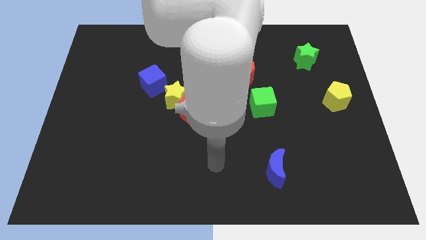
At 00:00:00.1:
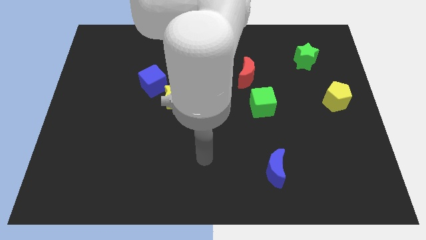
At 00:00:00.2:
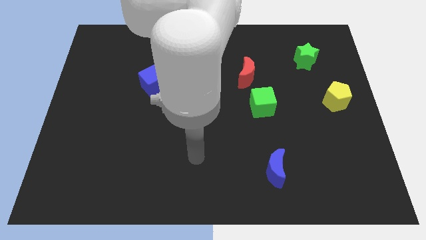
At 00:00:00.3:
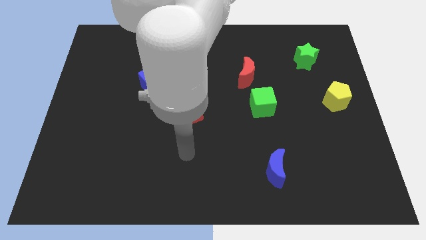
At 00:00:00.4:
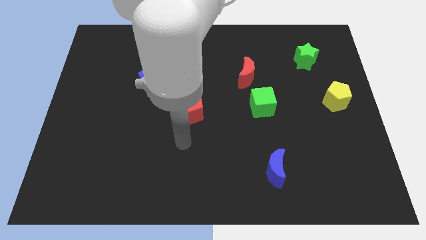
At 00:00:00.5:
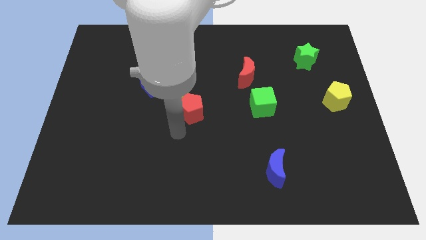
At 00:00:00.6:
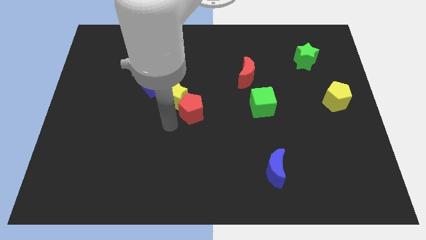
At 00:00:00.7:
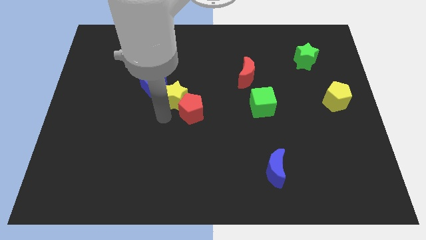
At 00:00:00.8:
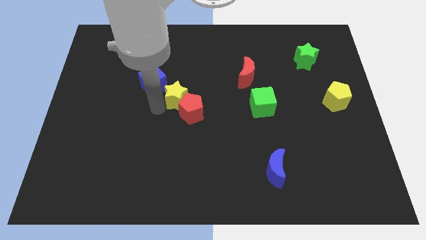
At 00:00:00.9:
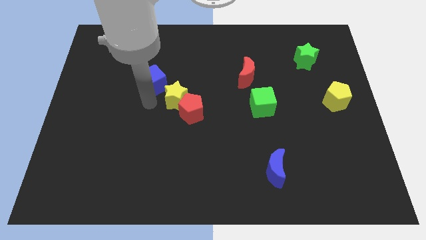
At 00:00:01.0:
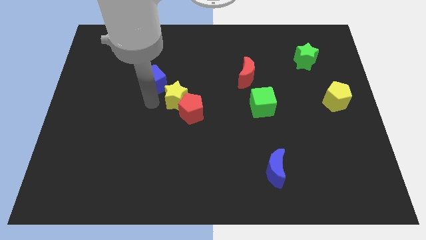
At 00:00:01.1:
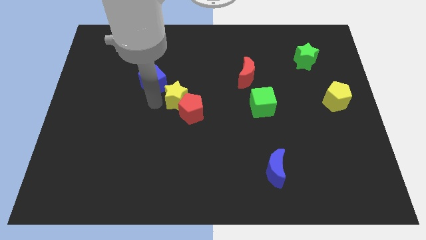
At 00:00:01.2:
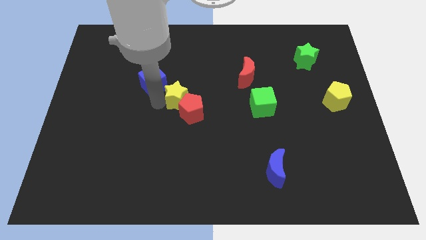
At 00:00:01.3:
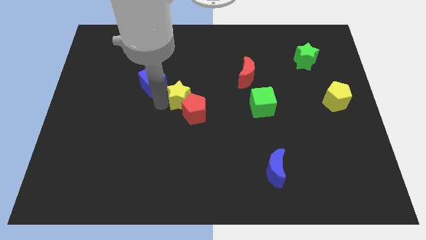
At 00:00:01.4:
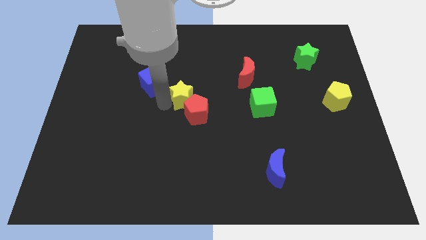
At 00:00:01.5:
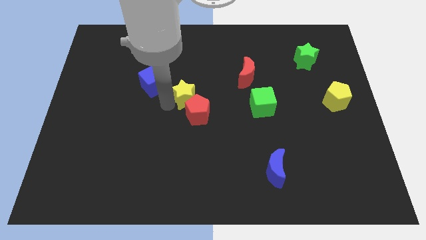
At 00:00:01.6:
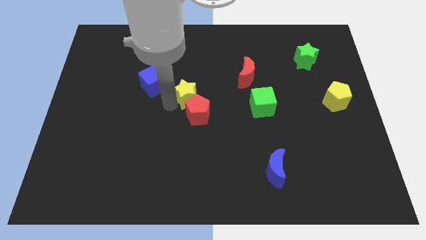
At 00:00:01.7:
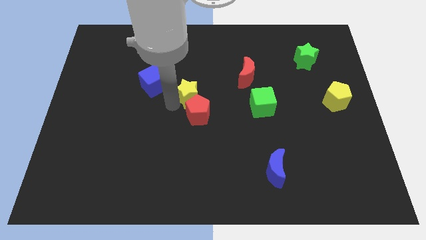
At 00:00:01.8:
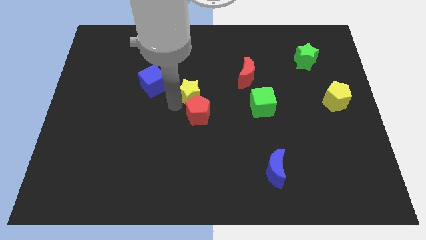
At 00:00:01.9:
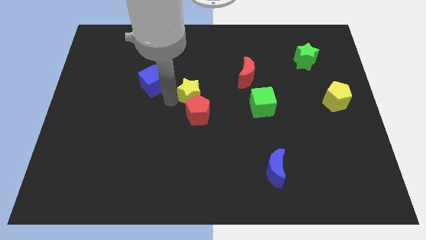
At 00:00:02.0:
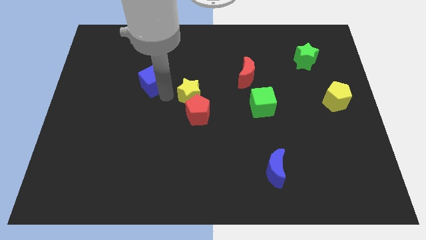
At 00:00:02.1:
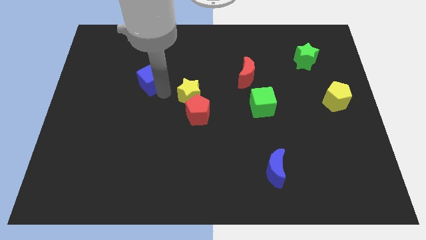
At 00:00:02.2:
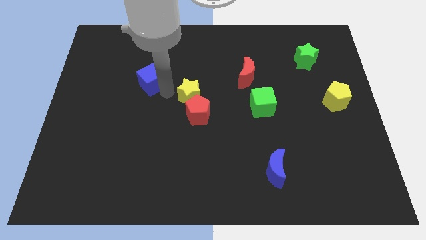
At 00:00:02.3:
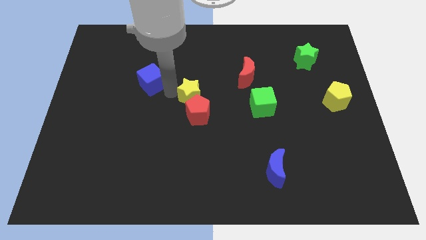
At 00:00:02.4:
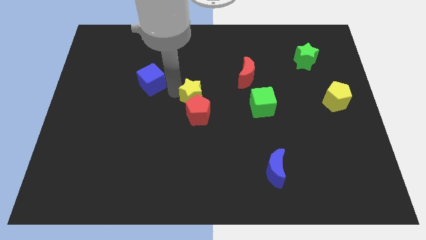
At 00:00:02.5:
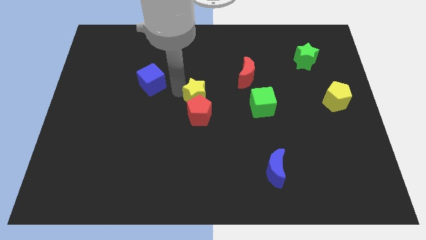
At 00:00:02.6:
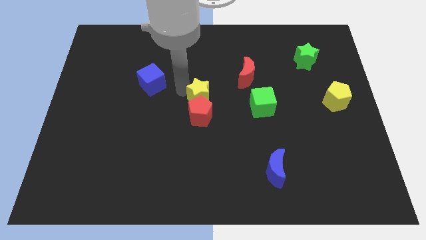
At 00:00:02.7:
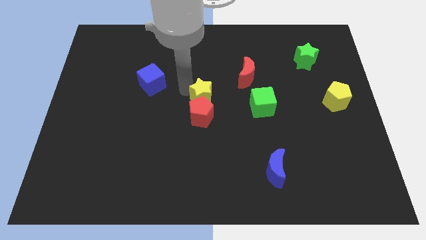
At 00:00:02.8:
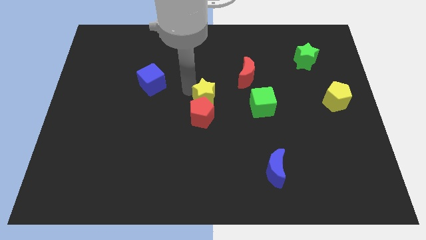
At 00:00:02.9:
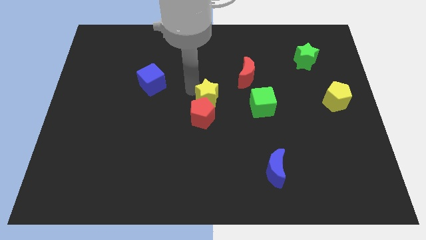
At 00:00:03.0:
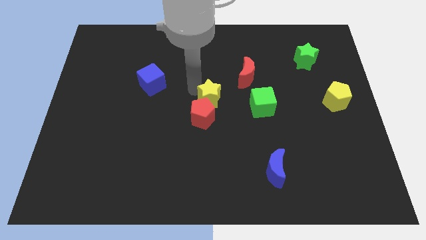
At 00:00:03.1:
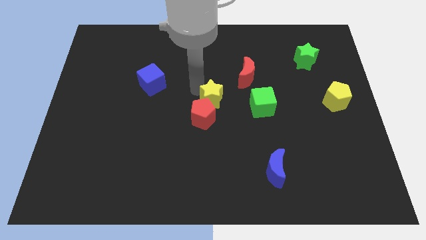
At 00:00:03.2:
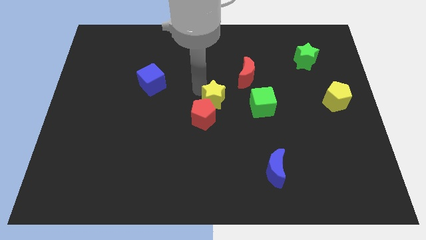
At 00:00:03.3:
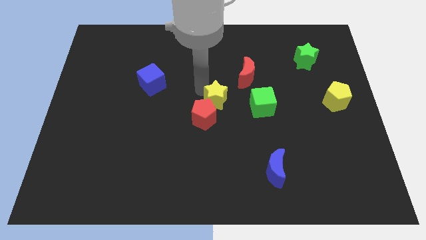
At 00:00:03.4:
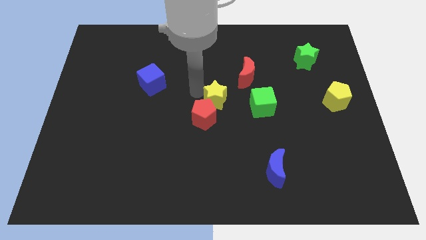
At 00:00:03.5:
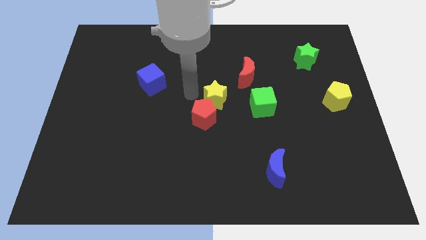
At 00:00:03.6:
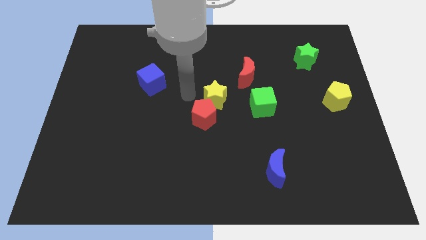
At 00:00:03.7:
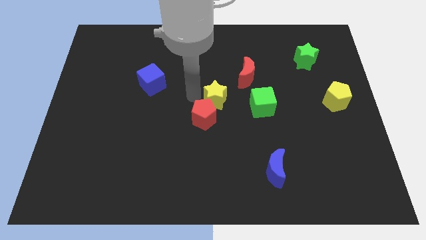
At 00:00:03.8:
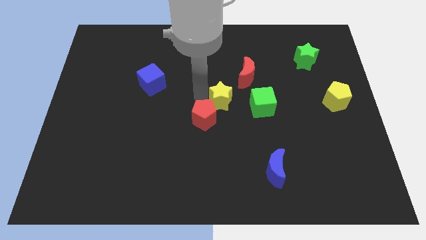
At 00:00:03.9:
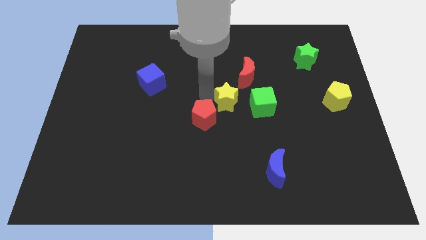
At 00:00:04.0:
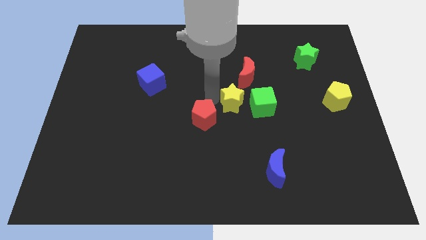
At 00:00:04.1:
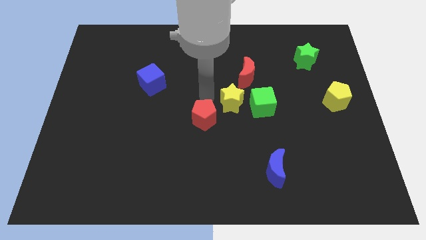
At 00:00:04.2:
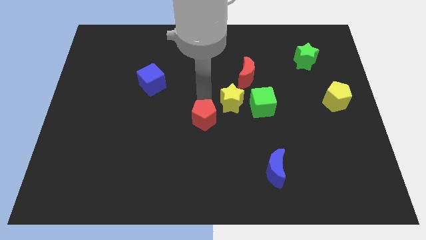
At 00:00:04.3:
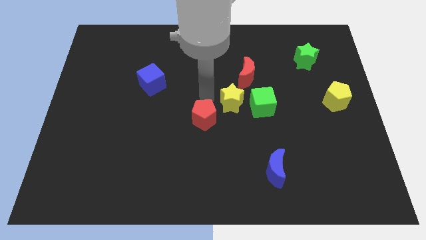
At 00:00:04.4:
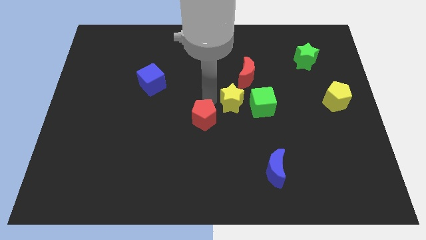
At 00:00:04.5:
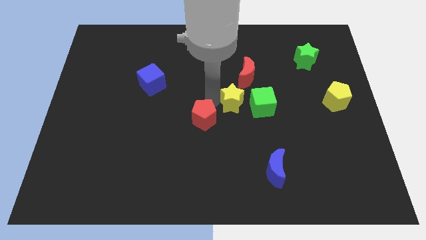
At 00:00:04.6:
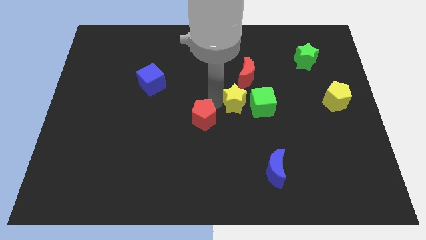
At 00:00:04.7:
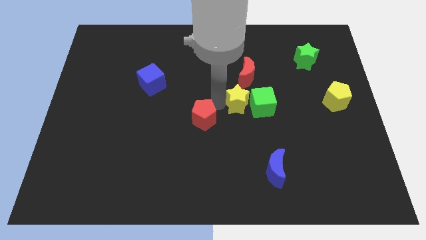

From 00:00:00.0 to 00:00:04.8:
put the yellow star to the green cube

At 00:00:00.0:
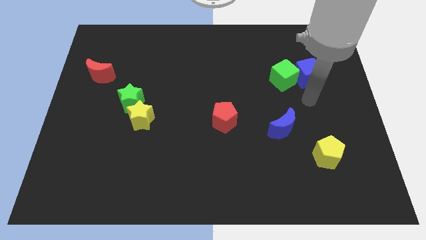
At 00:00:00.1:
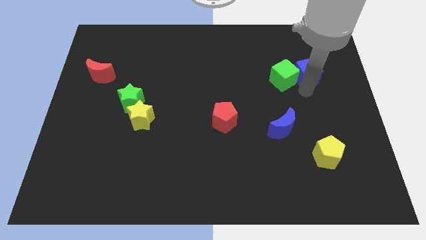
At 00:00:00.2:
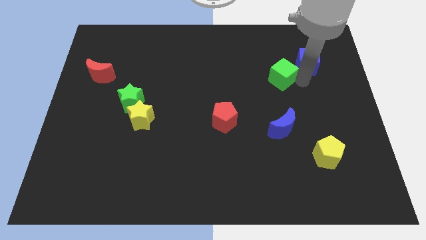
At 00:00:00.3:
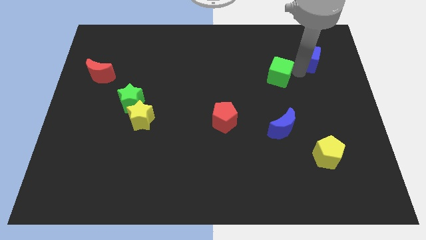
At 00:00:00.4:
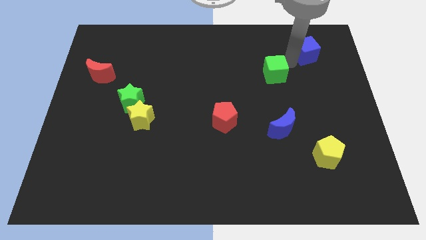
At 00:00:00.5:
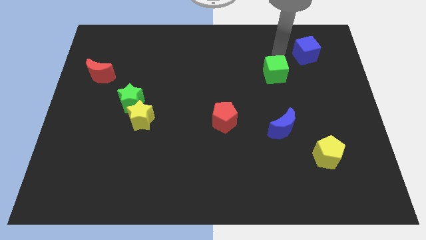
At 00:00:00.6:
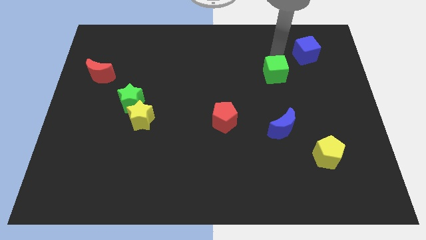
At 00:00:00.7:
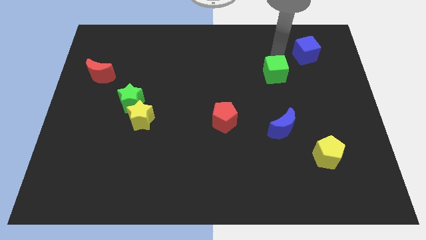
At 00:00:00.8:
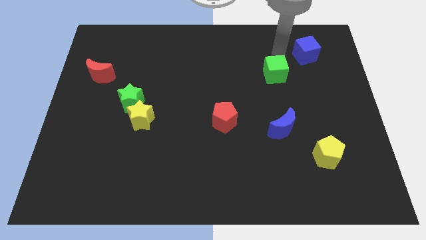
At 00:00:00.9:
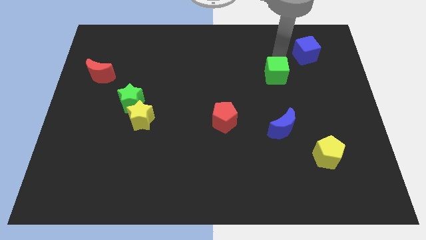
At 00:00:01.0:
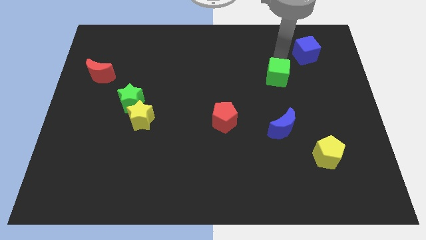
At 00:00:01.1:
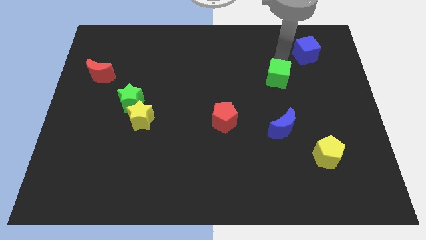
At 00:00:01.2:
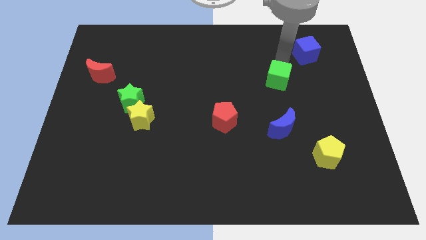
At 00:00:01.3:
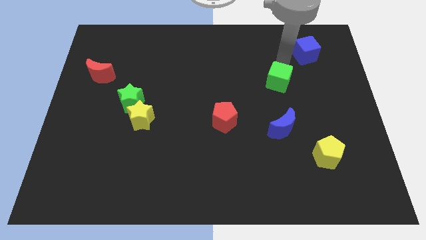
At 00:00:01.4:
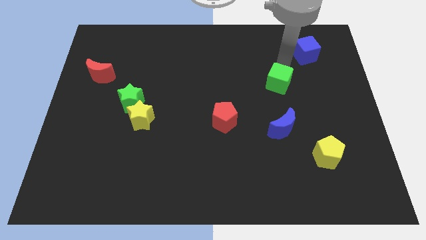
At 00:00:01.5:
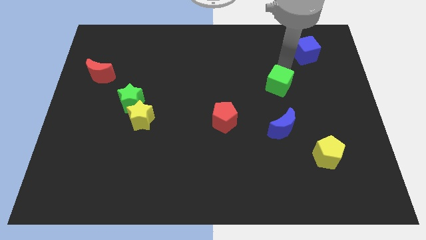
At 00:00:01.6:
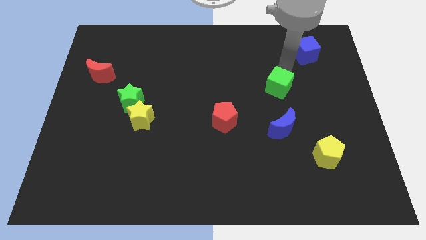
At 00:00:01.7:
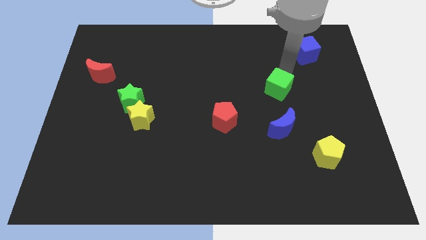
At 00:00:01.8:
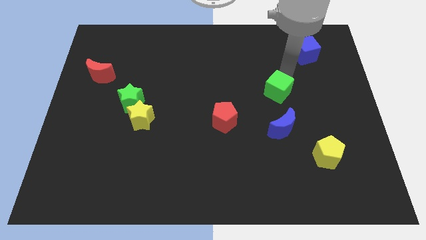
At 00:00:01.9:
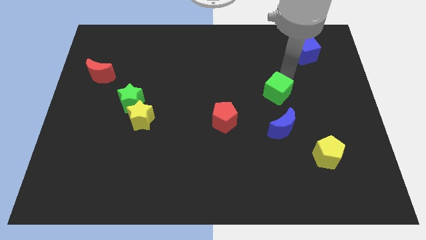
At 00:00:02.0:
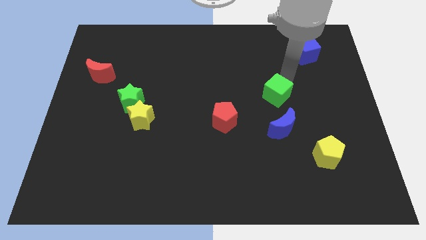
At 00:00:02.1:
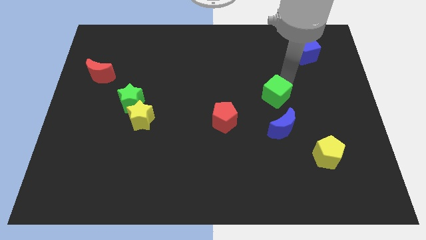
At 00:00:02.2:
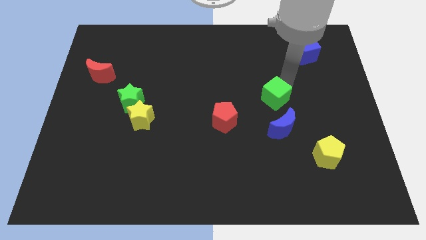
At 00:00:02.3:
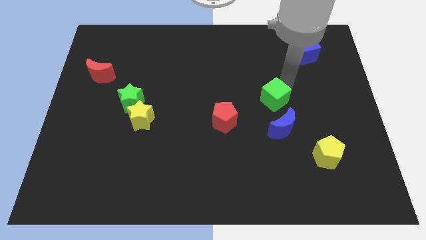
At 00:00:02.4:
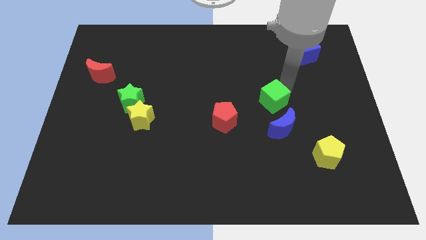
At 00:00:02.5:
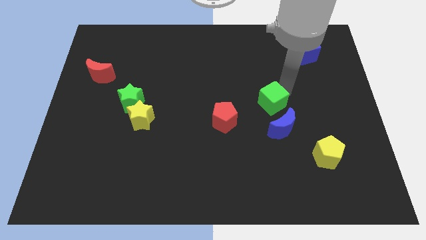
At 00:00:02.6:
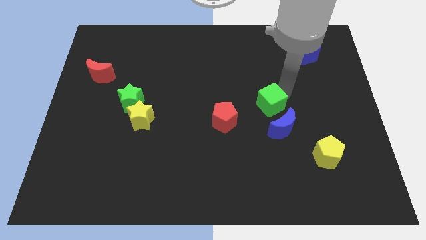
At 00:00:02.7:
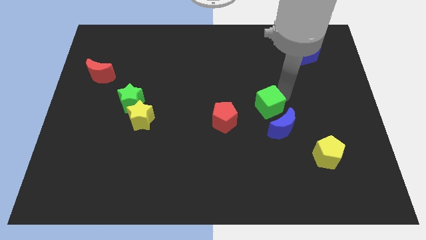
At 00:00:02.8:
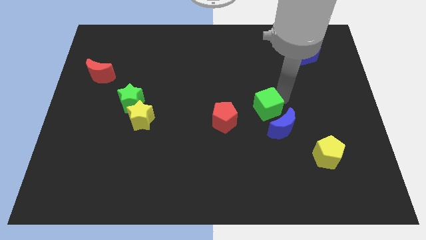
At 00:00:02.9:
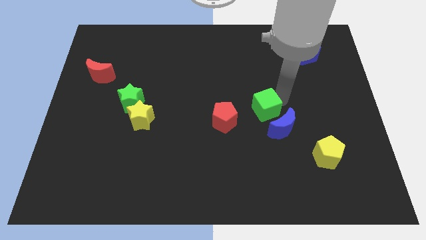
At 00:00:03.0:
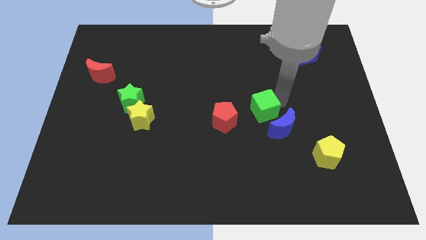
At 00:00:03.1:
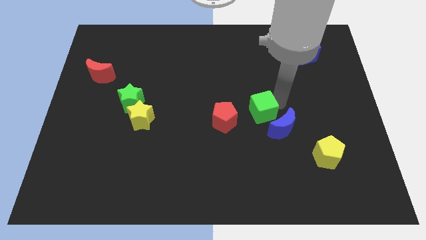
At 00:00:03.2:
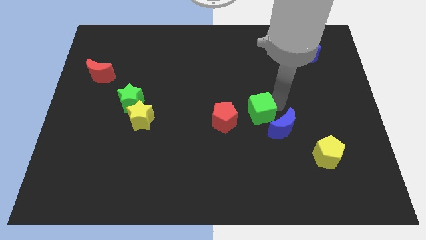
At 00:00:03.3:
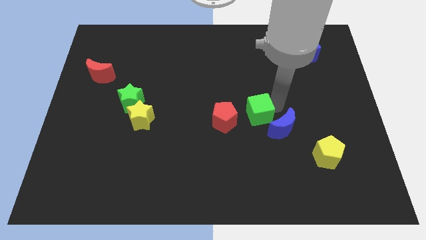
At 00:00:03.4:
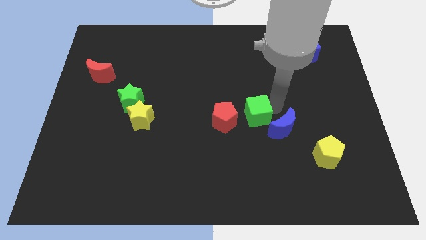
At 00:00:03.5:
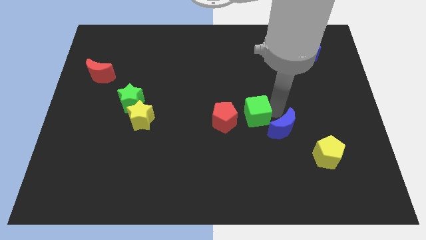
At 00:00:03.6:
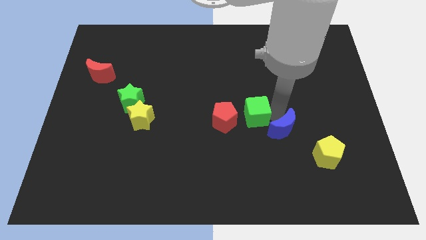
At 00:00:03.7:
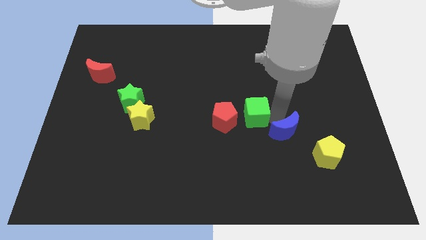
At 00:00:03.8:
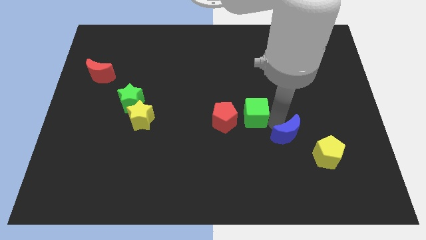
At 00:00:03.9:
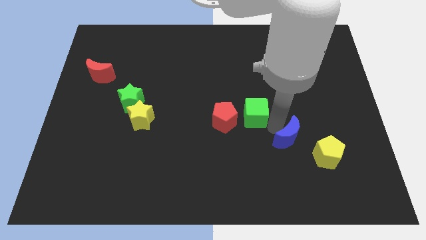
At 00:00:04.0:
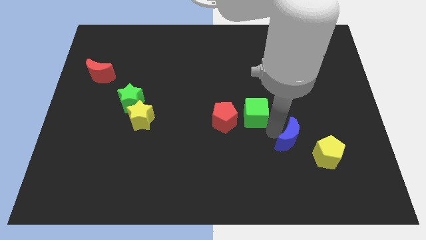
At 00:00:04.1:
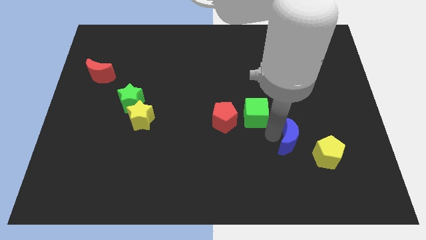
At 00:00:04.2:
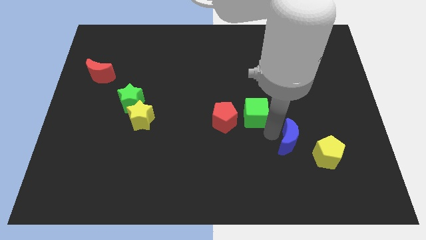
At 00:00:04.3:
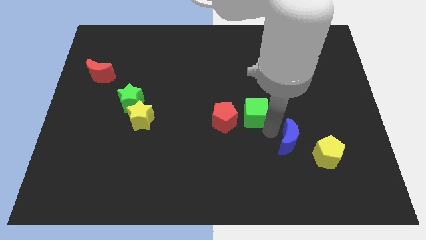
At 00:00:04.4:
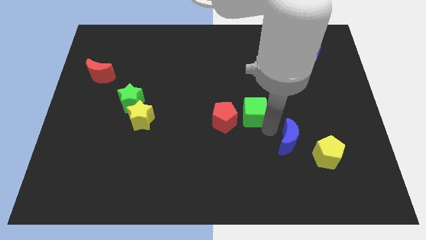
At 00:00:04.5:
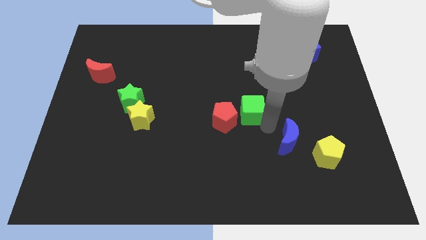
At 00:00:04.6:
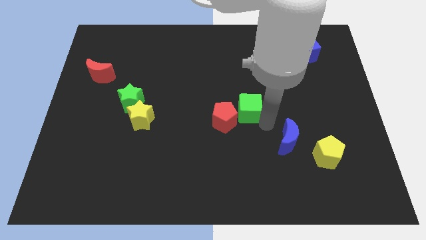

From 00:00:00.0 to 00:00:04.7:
put the green cube towards the red pentagon
